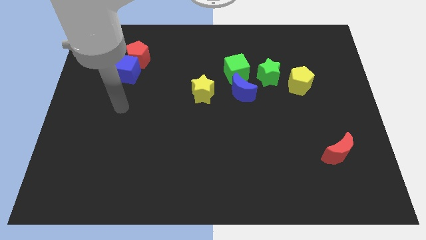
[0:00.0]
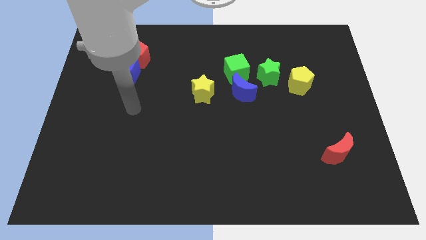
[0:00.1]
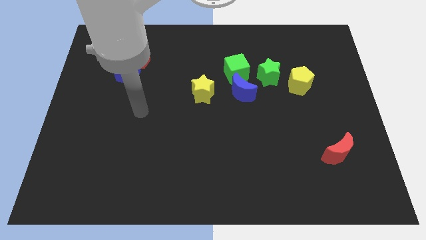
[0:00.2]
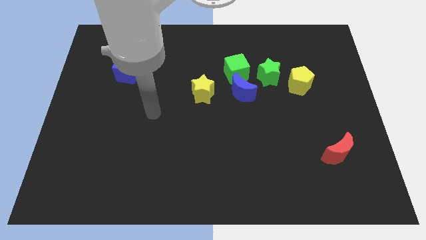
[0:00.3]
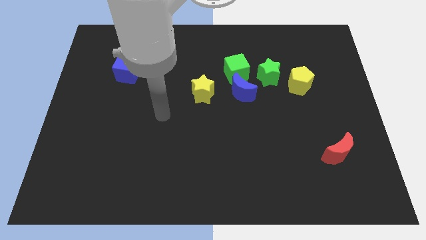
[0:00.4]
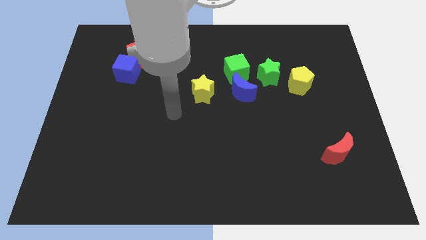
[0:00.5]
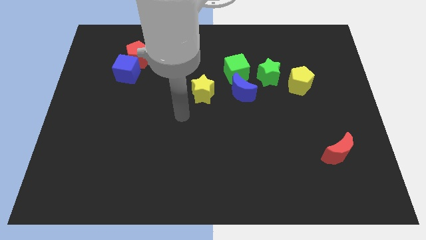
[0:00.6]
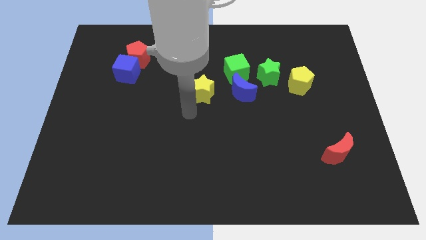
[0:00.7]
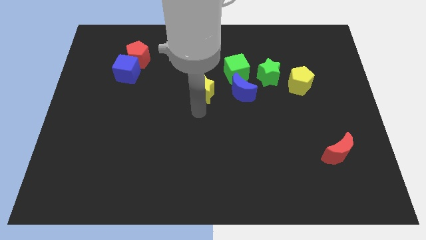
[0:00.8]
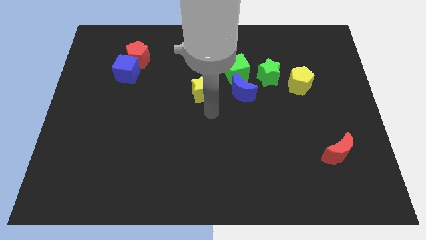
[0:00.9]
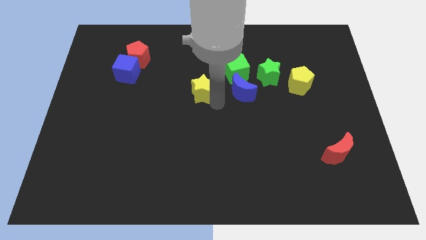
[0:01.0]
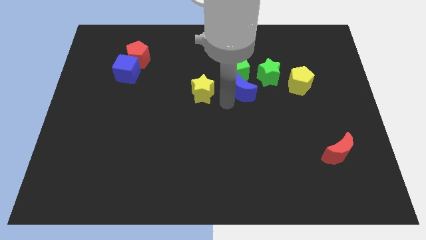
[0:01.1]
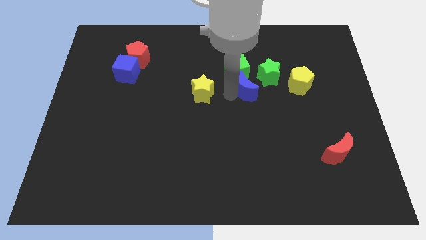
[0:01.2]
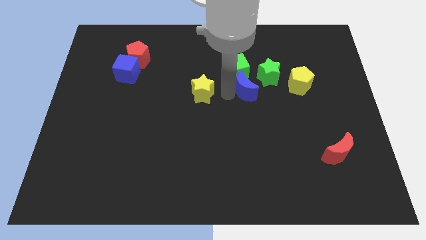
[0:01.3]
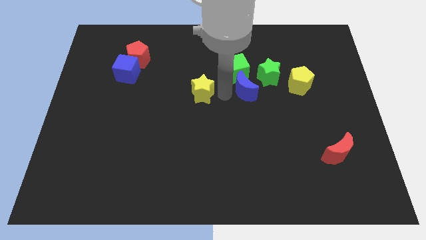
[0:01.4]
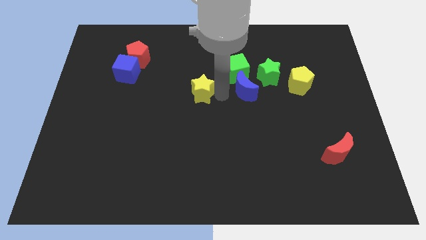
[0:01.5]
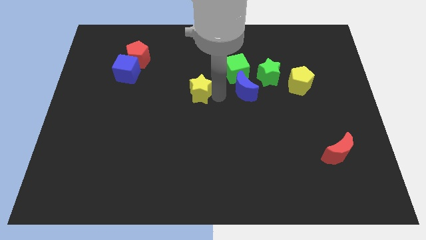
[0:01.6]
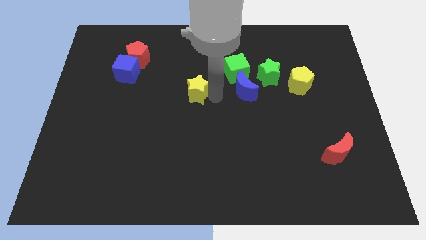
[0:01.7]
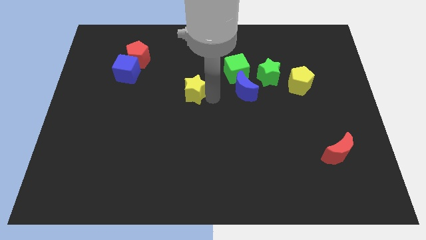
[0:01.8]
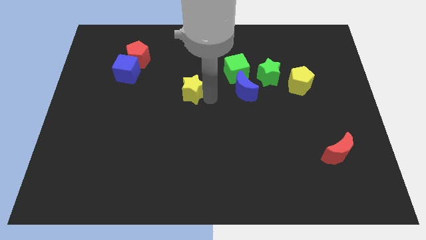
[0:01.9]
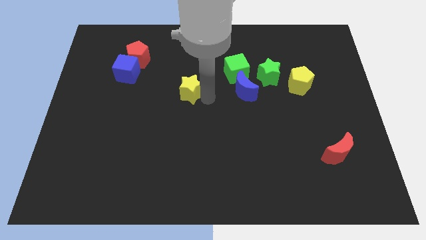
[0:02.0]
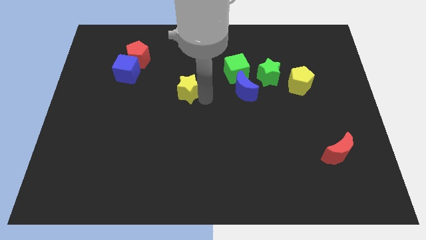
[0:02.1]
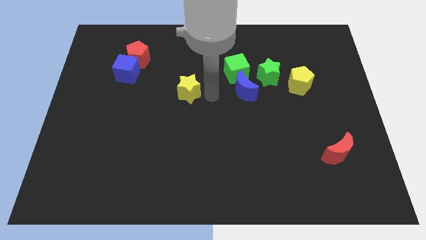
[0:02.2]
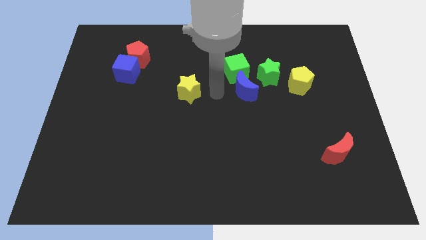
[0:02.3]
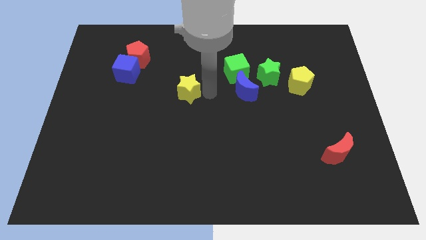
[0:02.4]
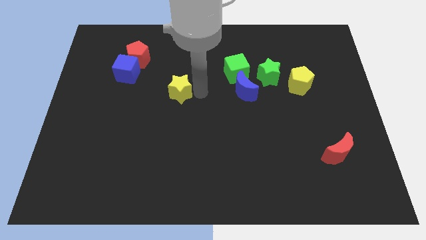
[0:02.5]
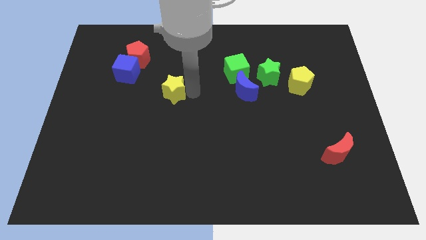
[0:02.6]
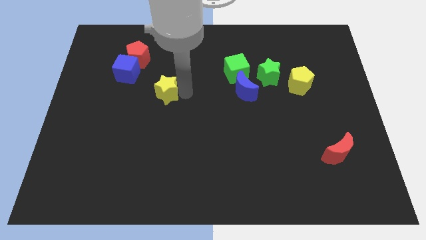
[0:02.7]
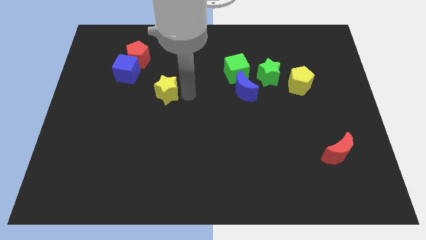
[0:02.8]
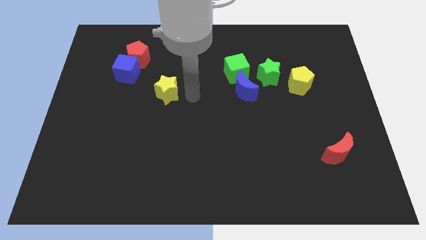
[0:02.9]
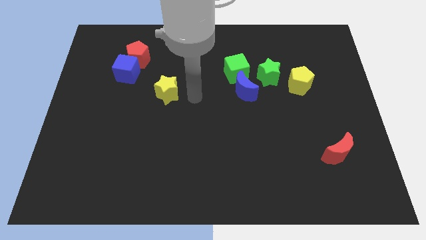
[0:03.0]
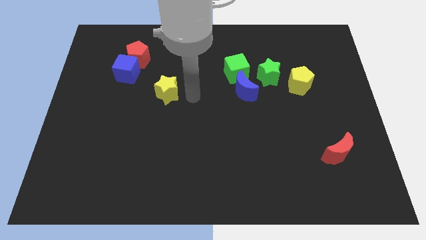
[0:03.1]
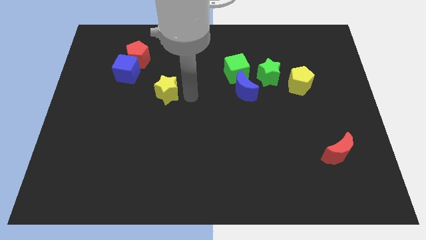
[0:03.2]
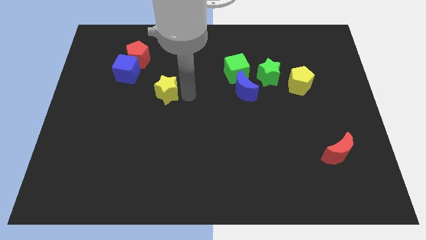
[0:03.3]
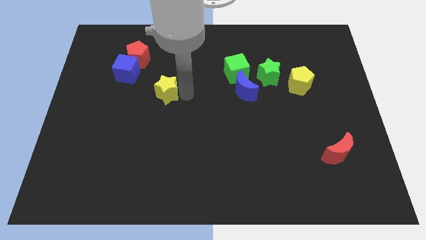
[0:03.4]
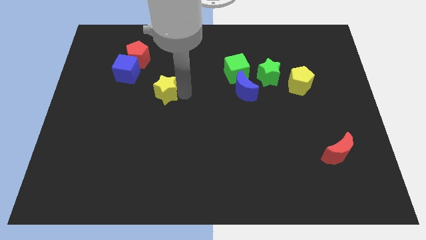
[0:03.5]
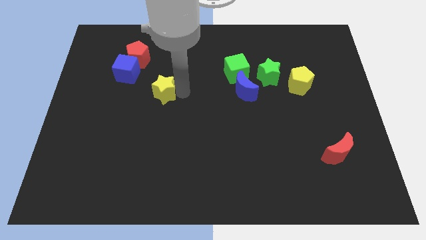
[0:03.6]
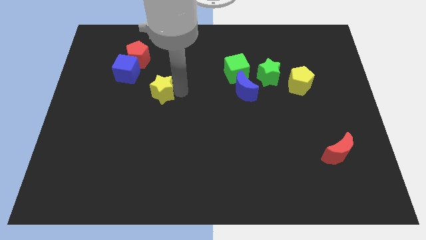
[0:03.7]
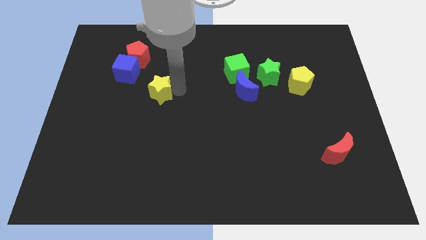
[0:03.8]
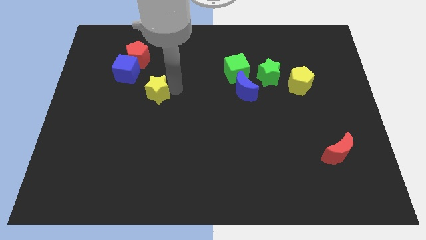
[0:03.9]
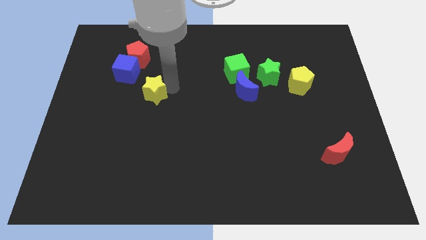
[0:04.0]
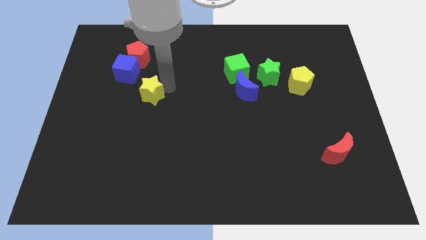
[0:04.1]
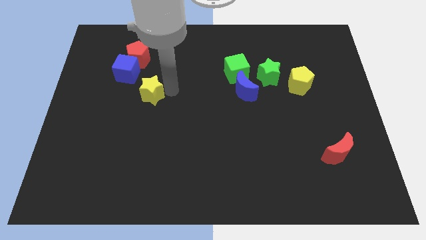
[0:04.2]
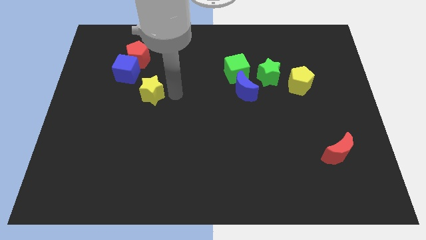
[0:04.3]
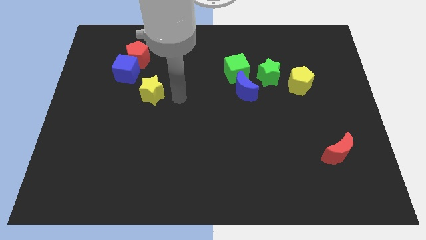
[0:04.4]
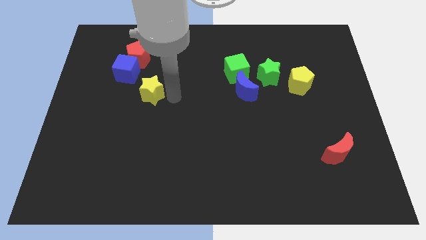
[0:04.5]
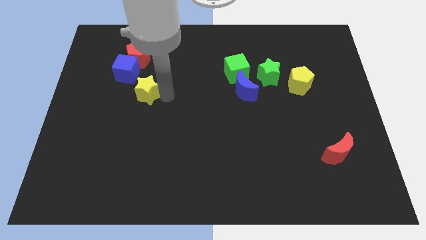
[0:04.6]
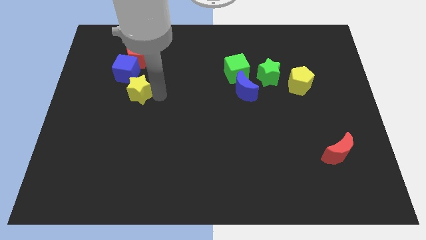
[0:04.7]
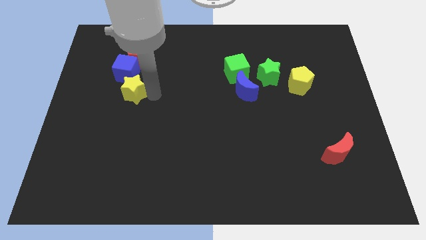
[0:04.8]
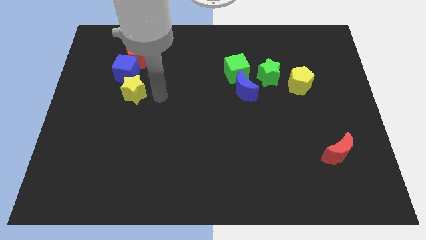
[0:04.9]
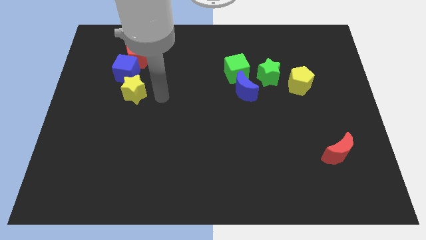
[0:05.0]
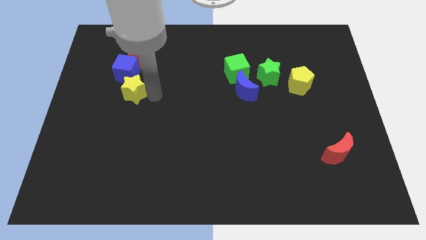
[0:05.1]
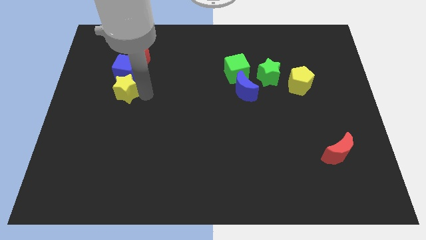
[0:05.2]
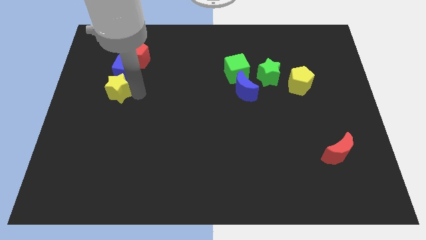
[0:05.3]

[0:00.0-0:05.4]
move the yellow star to the bottom left of the blue cube
